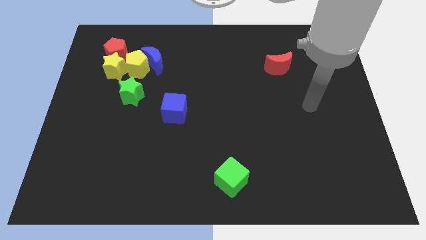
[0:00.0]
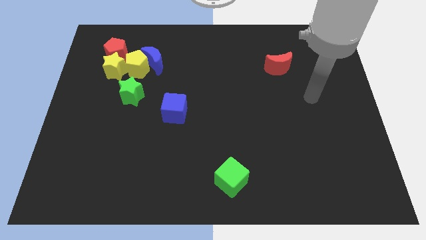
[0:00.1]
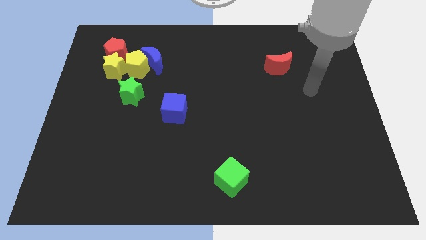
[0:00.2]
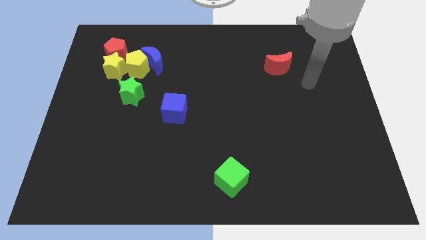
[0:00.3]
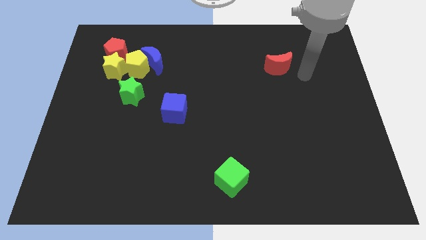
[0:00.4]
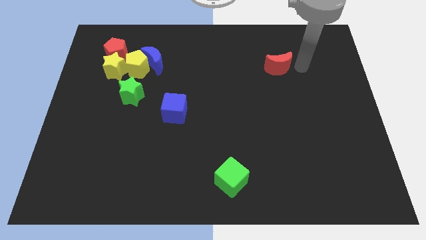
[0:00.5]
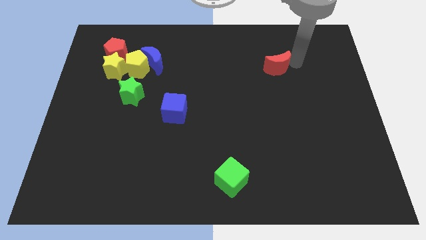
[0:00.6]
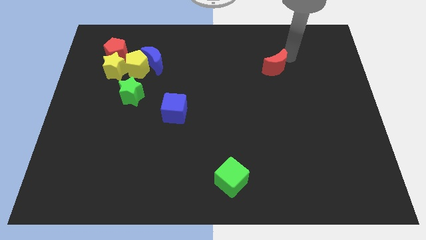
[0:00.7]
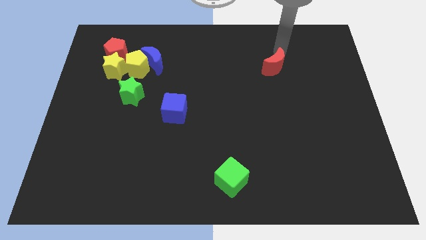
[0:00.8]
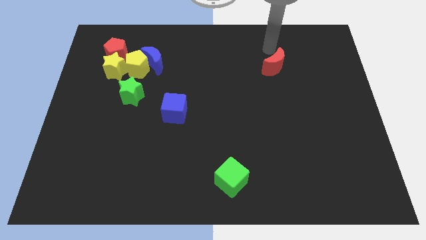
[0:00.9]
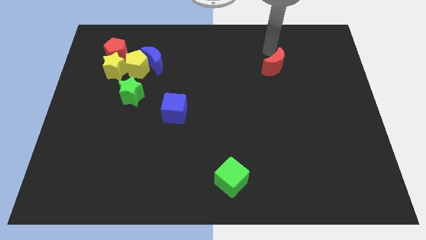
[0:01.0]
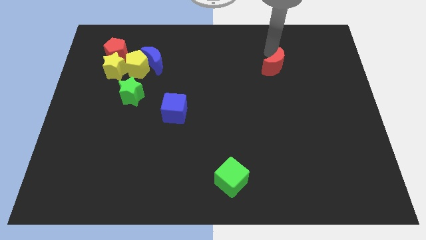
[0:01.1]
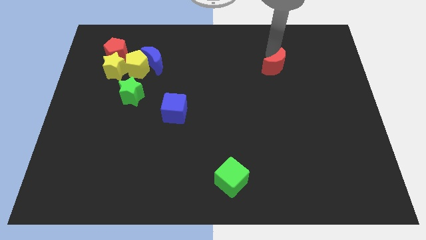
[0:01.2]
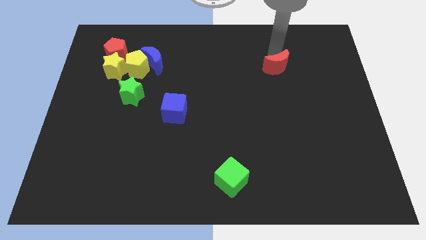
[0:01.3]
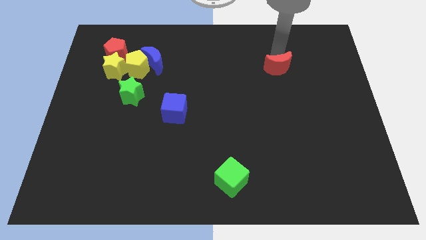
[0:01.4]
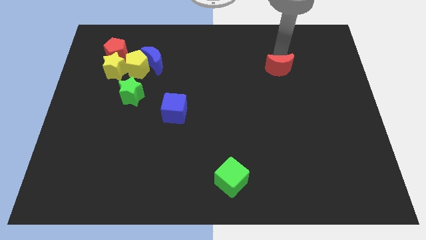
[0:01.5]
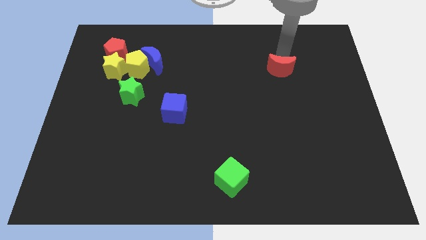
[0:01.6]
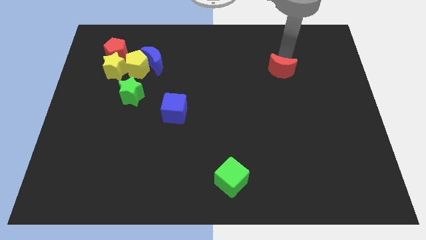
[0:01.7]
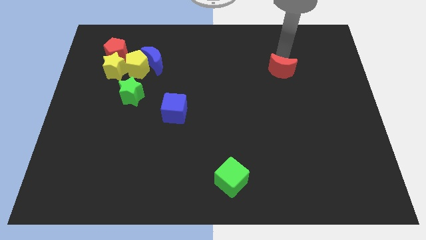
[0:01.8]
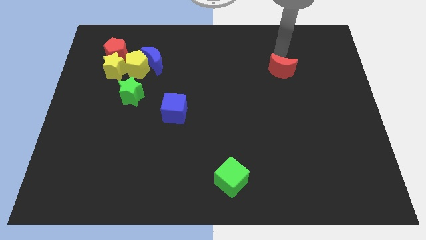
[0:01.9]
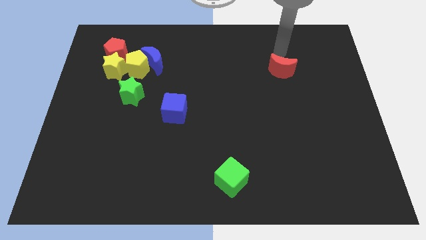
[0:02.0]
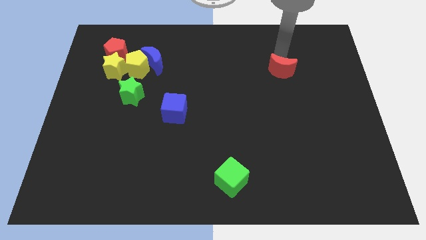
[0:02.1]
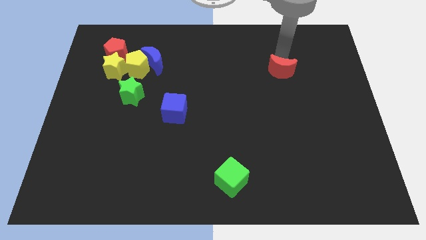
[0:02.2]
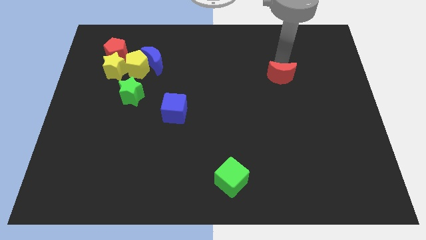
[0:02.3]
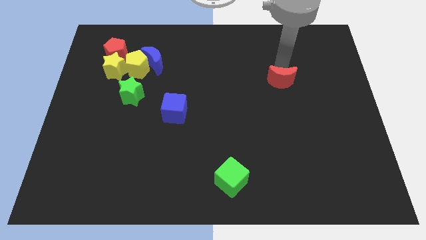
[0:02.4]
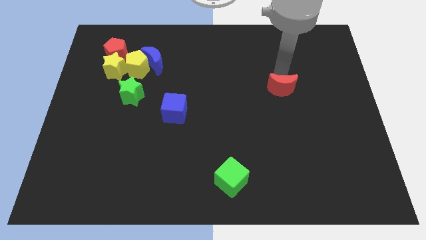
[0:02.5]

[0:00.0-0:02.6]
move the red moon downwards a little bit

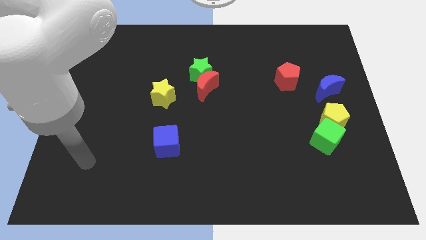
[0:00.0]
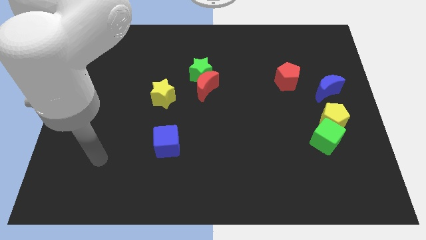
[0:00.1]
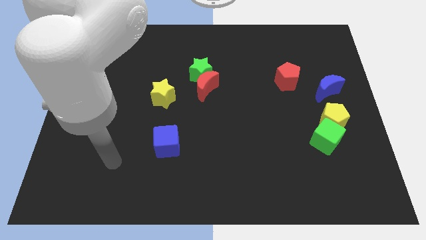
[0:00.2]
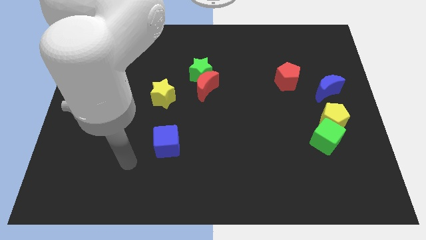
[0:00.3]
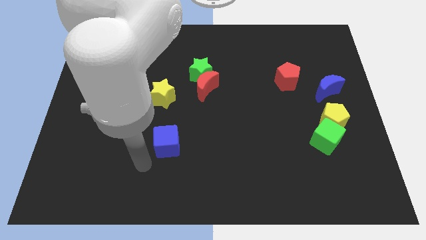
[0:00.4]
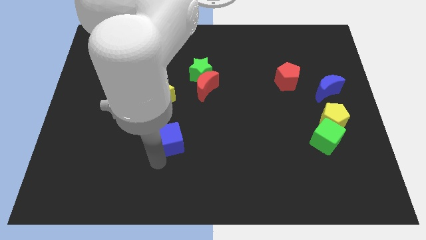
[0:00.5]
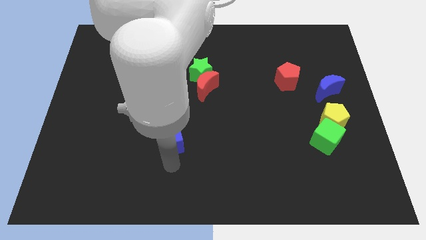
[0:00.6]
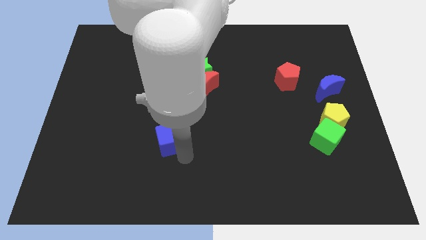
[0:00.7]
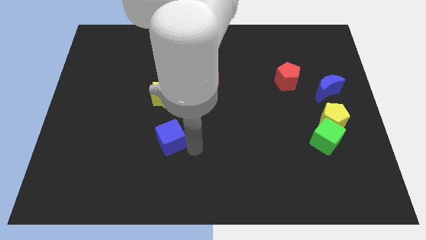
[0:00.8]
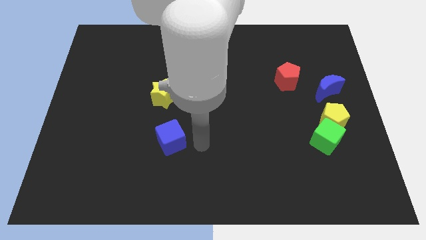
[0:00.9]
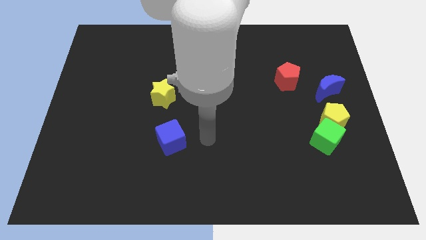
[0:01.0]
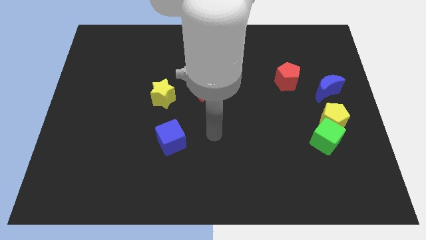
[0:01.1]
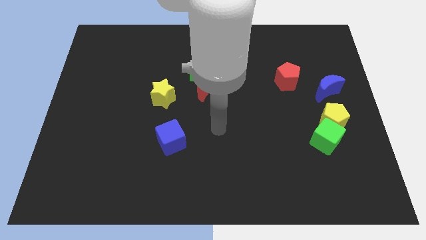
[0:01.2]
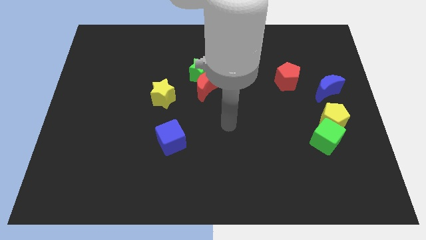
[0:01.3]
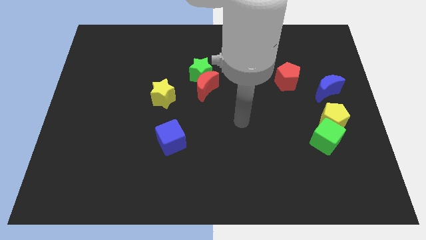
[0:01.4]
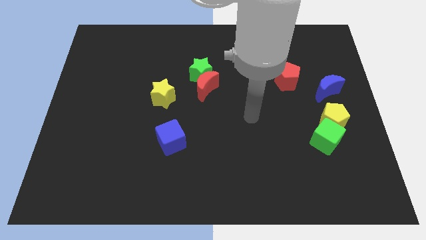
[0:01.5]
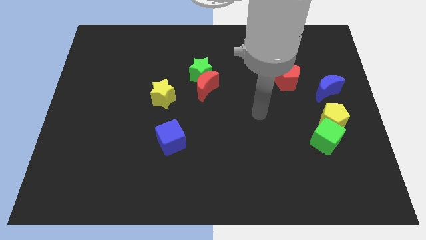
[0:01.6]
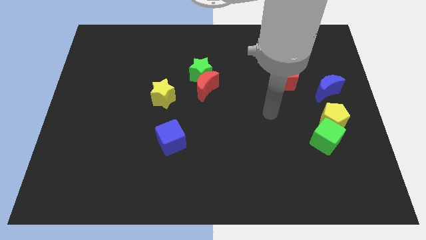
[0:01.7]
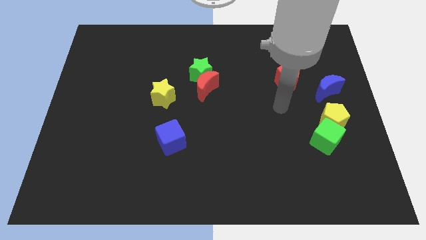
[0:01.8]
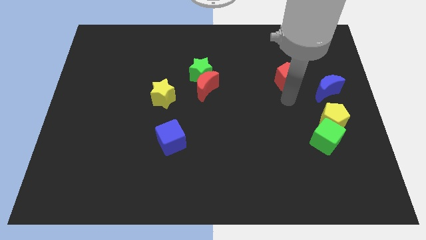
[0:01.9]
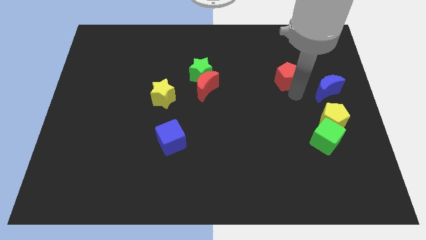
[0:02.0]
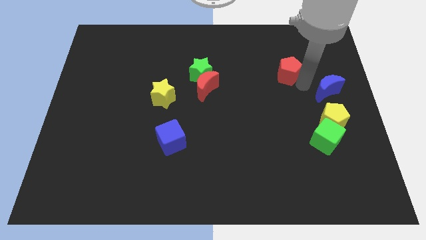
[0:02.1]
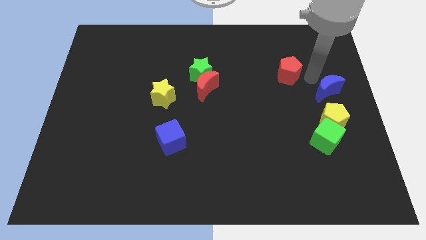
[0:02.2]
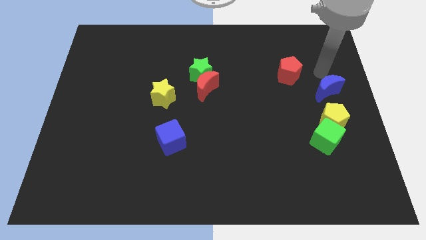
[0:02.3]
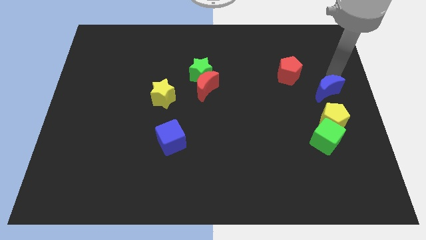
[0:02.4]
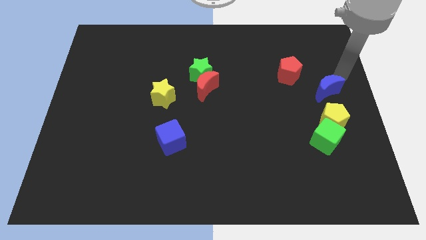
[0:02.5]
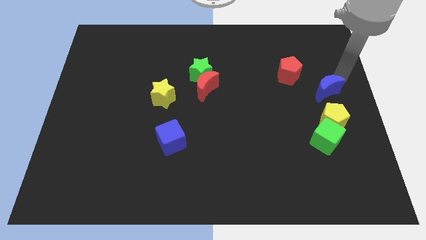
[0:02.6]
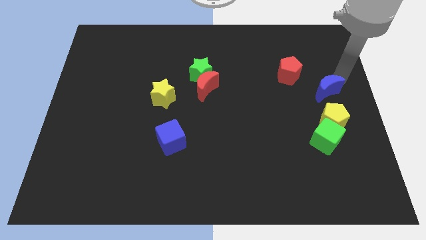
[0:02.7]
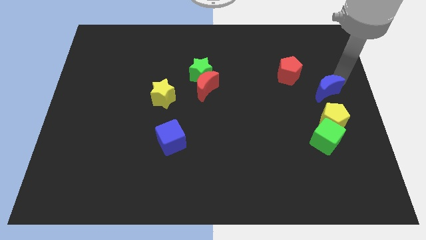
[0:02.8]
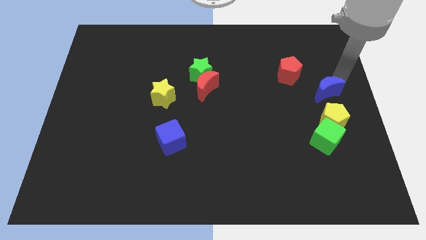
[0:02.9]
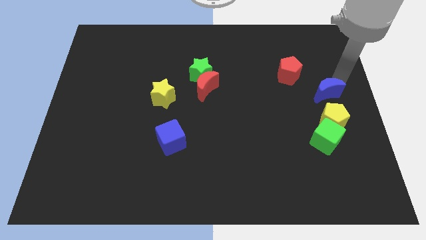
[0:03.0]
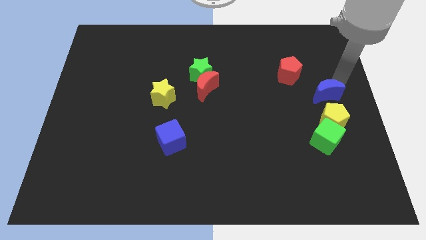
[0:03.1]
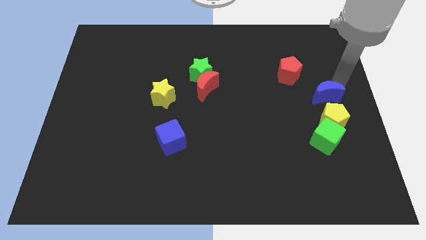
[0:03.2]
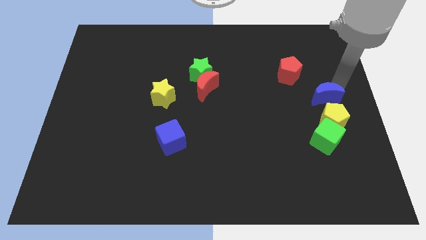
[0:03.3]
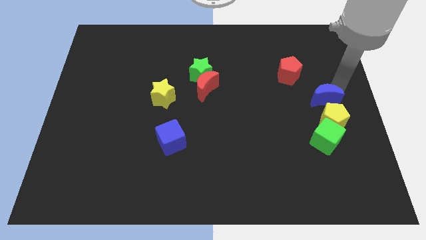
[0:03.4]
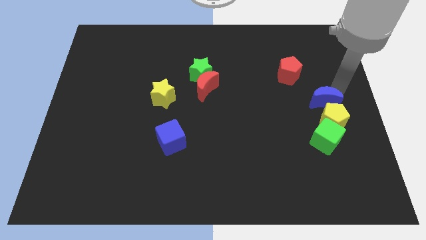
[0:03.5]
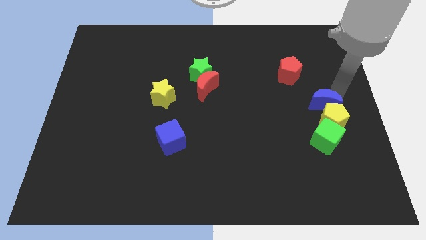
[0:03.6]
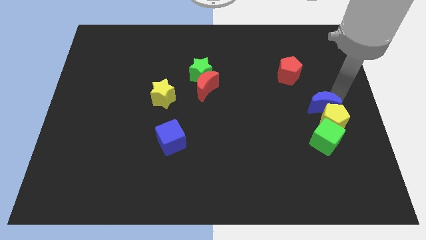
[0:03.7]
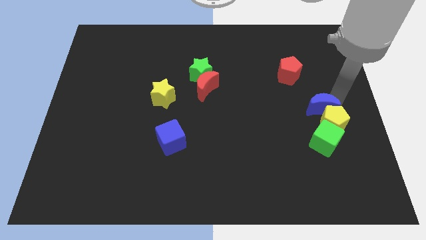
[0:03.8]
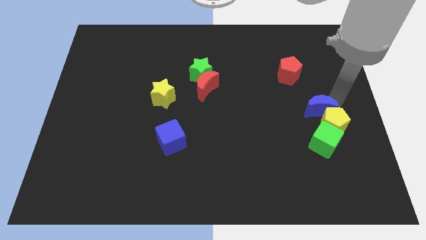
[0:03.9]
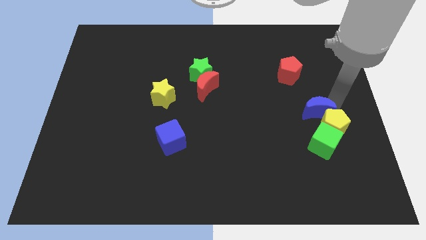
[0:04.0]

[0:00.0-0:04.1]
move the blue moon slightly down and to the left

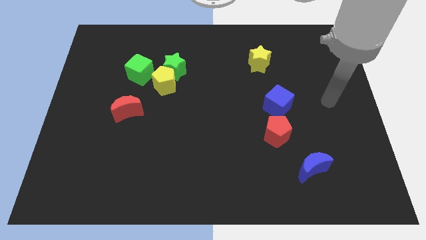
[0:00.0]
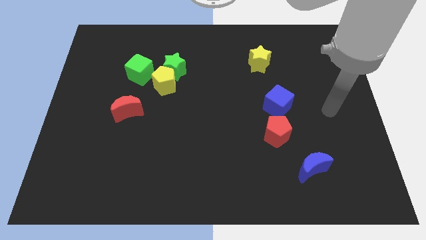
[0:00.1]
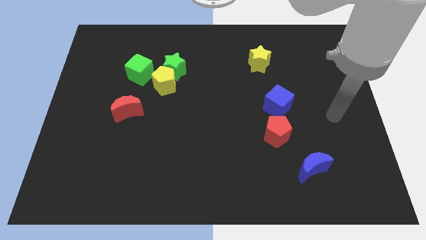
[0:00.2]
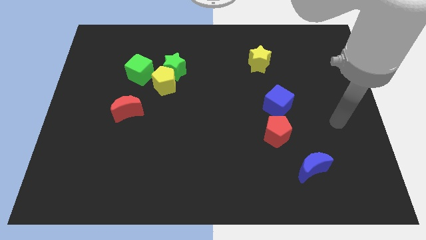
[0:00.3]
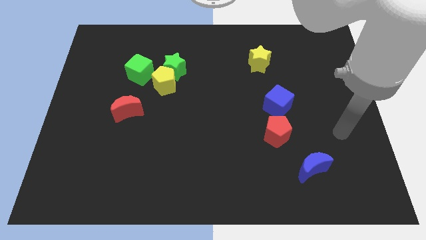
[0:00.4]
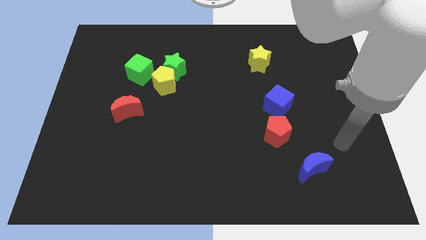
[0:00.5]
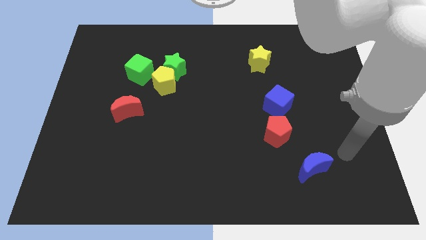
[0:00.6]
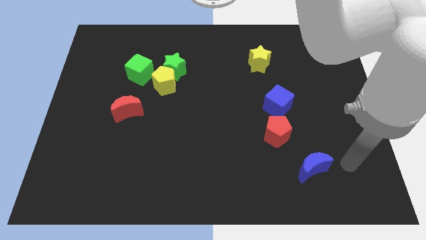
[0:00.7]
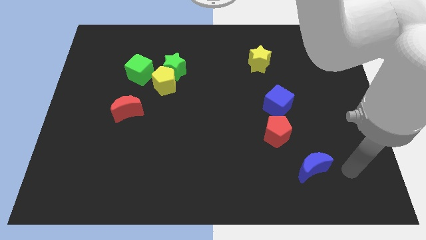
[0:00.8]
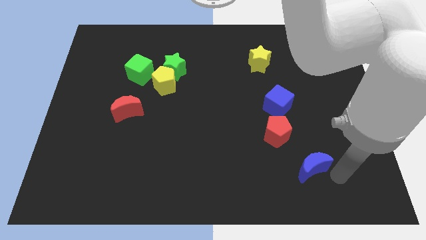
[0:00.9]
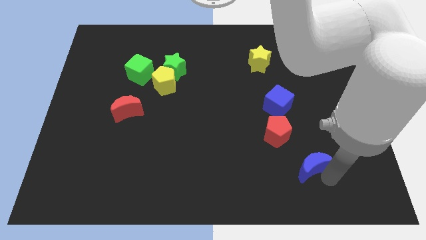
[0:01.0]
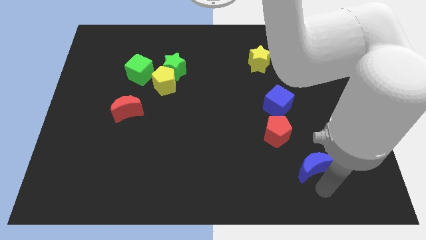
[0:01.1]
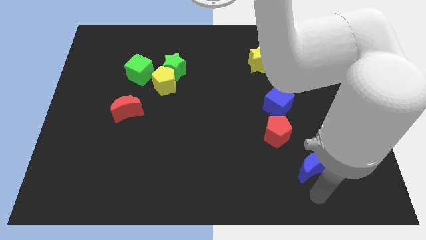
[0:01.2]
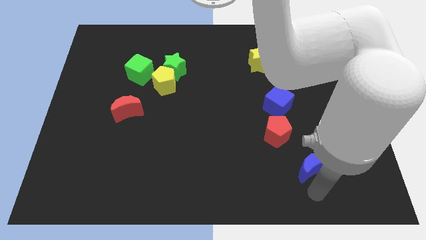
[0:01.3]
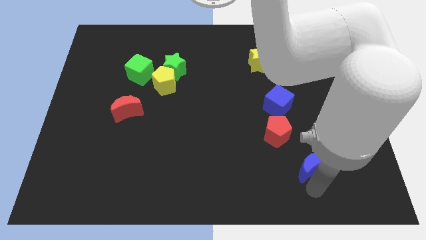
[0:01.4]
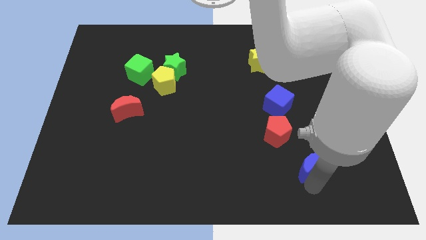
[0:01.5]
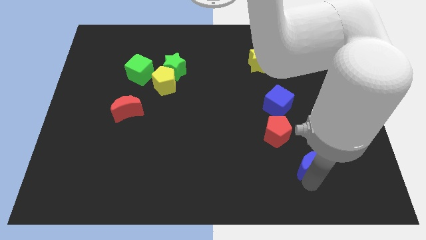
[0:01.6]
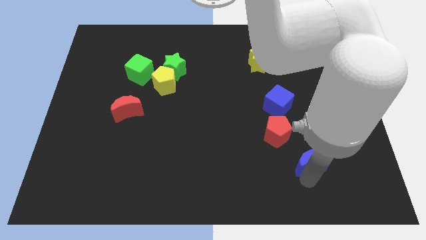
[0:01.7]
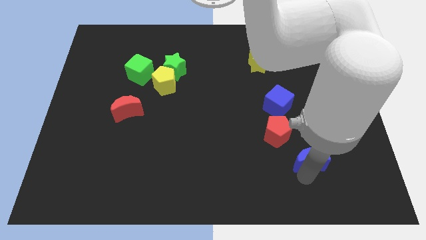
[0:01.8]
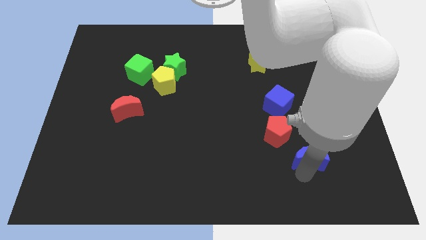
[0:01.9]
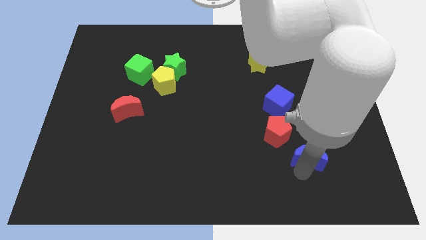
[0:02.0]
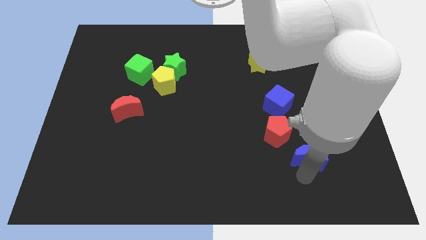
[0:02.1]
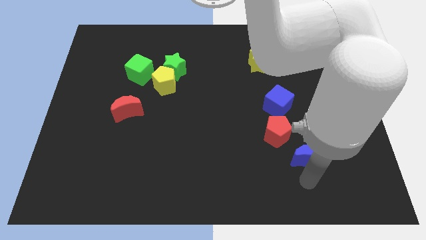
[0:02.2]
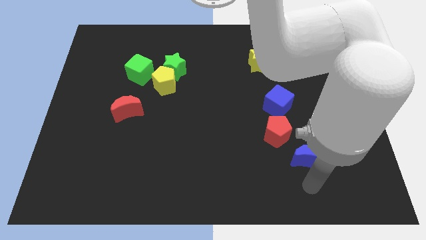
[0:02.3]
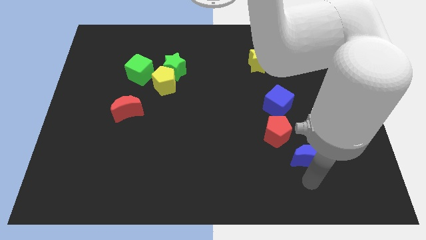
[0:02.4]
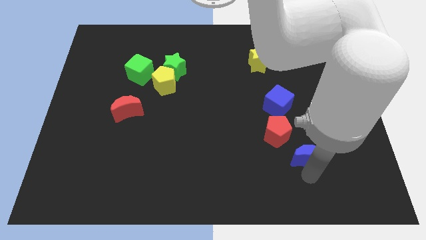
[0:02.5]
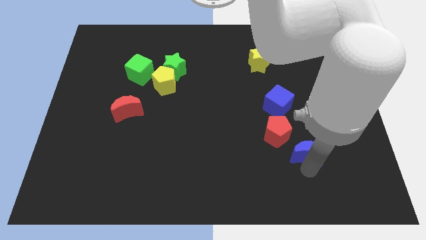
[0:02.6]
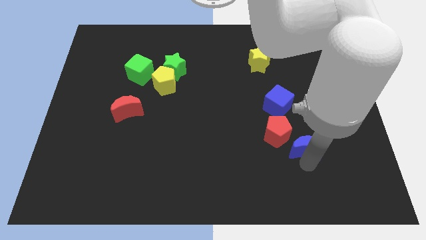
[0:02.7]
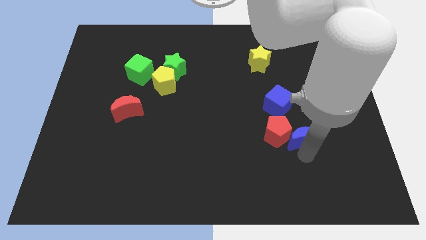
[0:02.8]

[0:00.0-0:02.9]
slightly move the blue moon upwards
